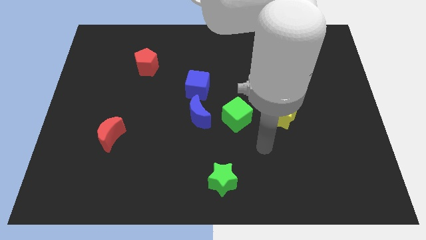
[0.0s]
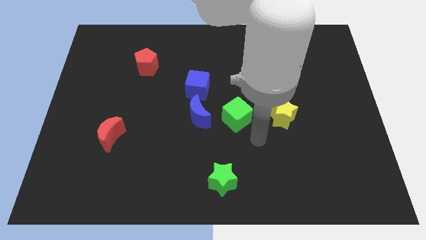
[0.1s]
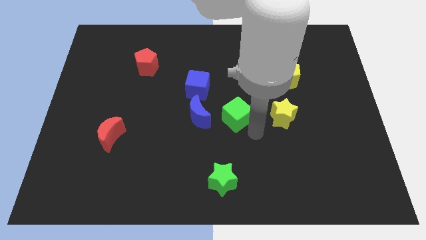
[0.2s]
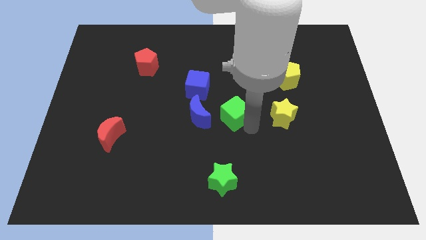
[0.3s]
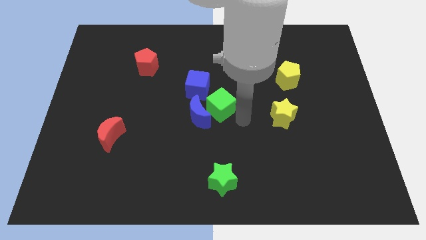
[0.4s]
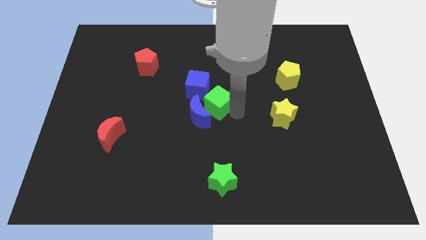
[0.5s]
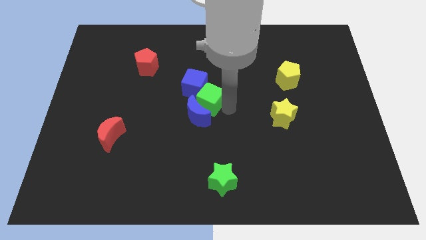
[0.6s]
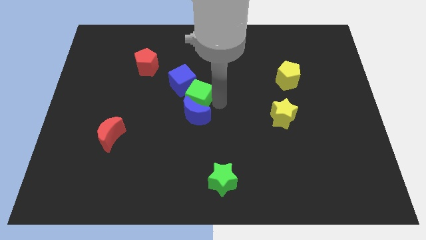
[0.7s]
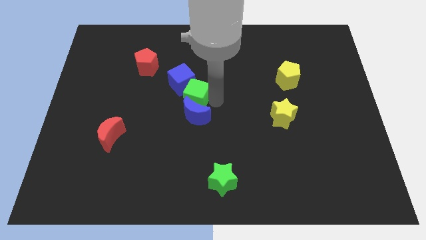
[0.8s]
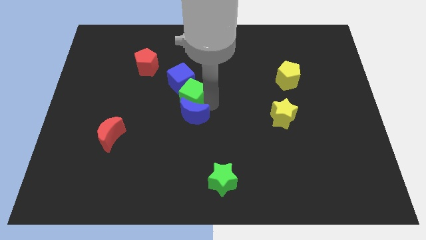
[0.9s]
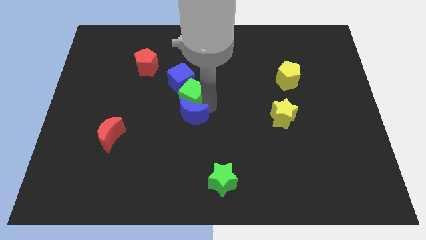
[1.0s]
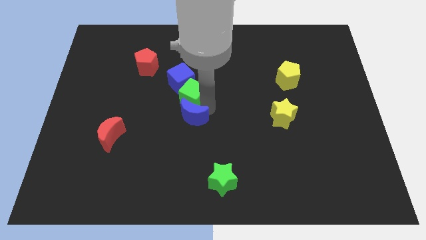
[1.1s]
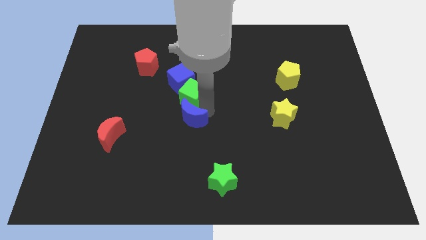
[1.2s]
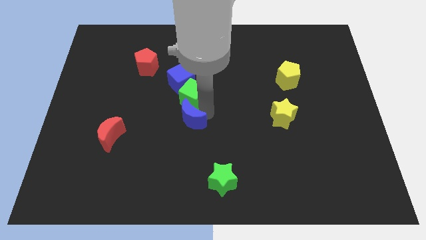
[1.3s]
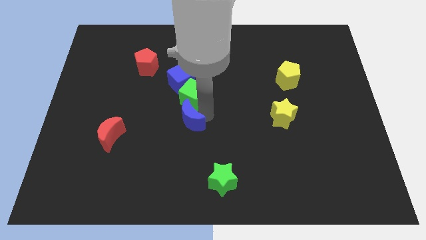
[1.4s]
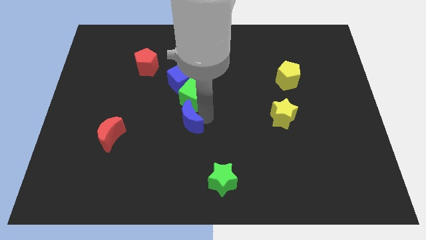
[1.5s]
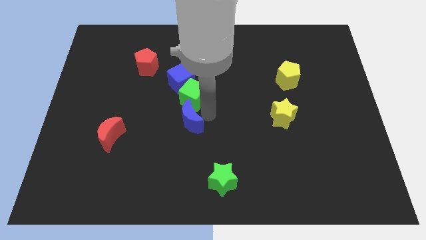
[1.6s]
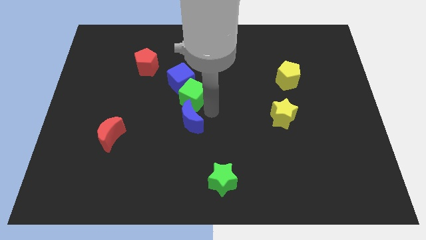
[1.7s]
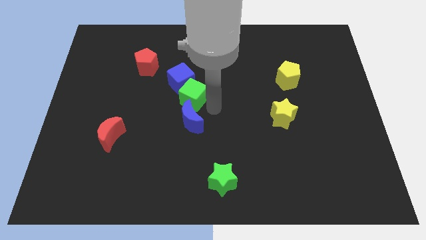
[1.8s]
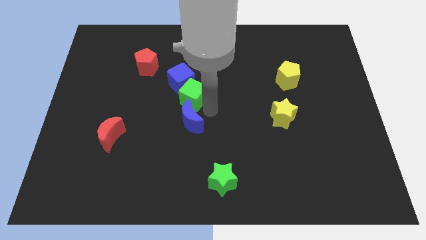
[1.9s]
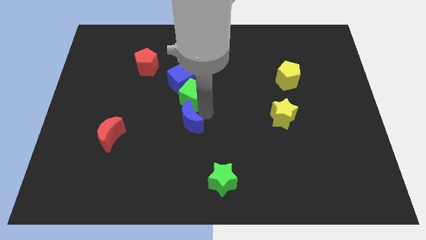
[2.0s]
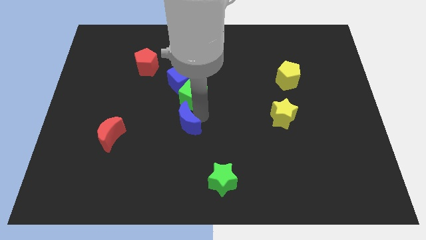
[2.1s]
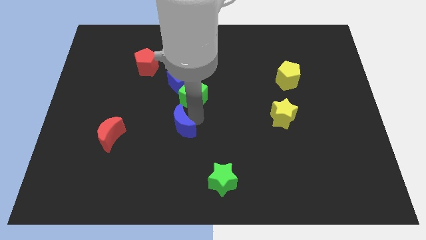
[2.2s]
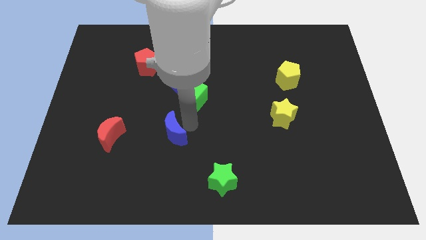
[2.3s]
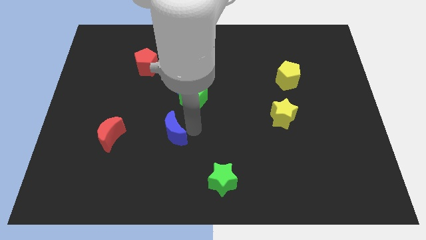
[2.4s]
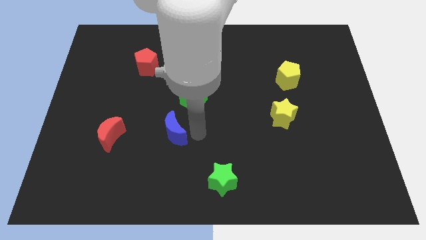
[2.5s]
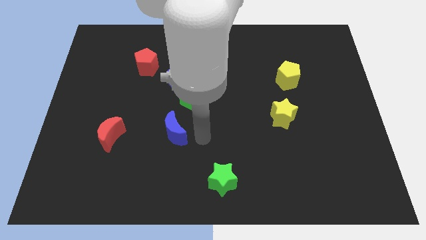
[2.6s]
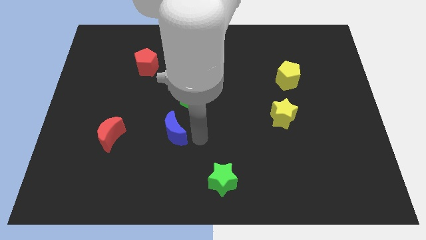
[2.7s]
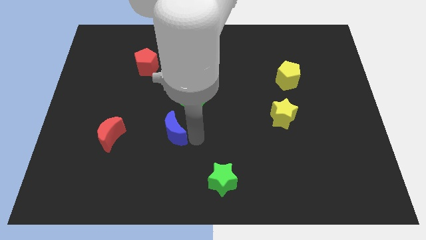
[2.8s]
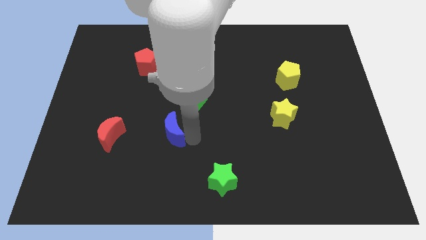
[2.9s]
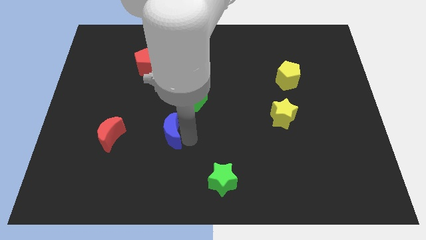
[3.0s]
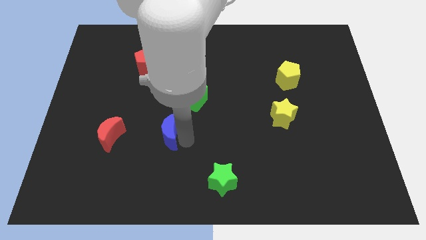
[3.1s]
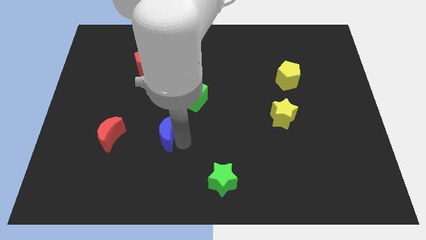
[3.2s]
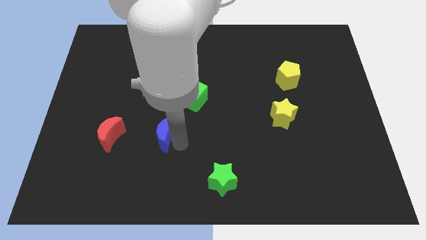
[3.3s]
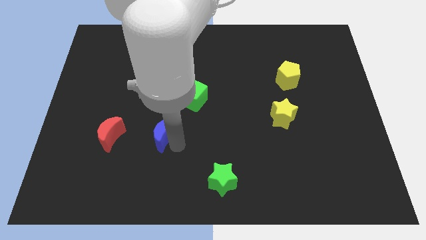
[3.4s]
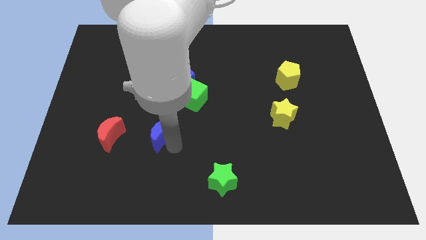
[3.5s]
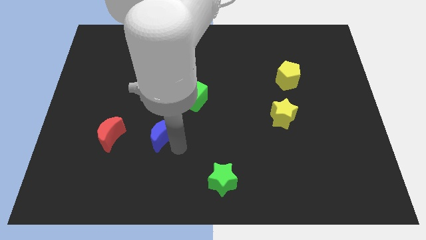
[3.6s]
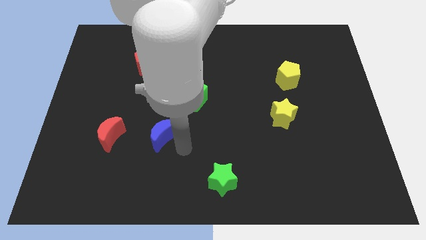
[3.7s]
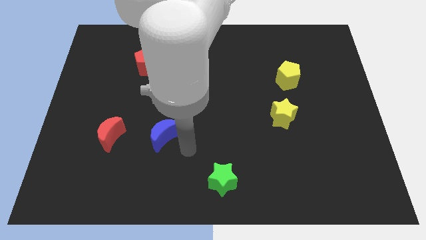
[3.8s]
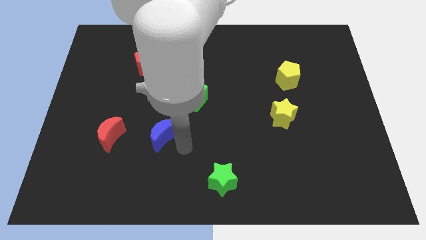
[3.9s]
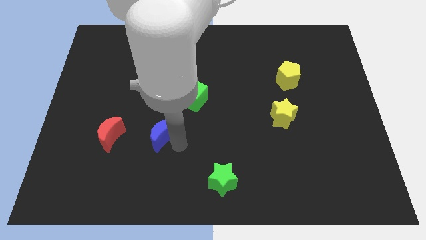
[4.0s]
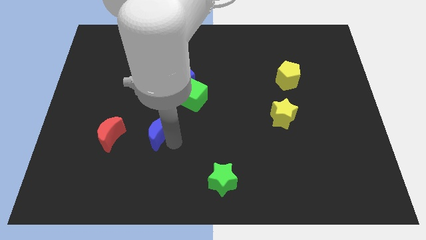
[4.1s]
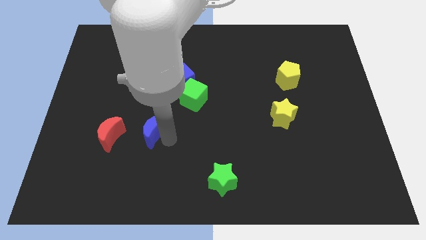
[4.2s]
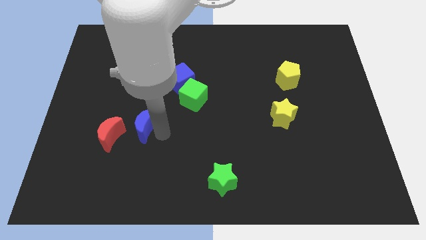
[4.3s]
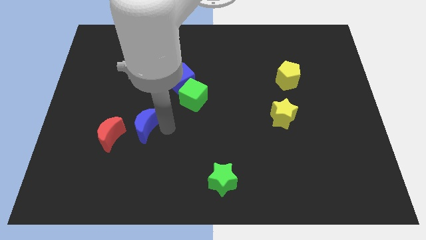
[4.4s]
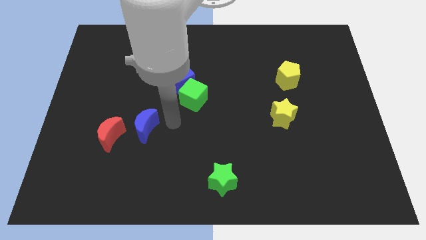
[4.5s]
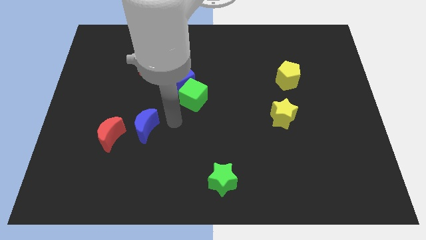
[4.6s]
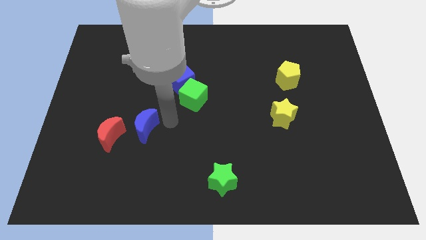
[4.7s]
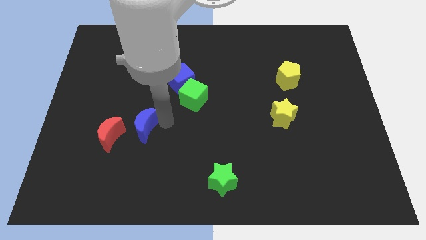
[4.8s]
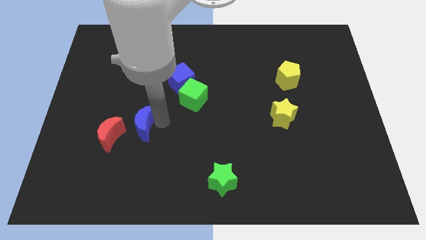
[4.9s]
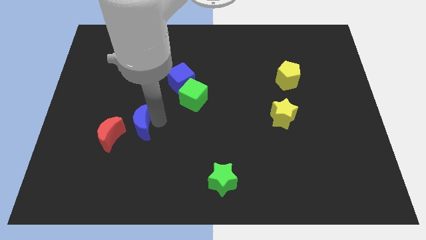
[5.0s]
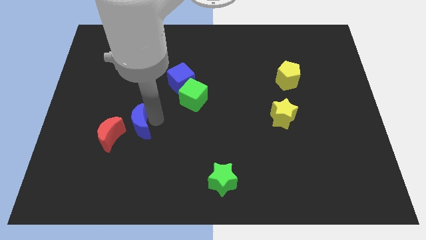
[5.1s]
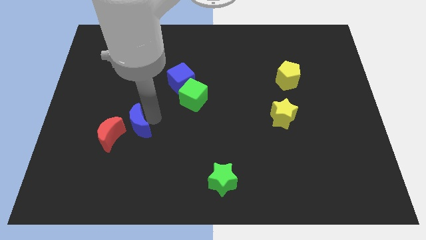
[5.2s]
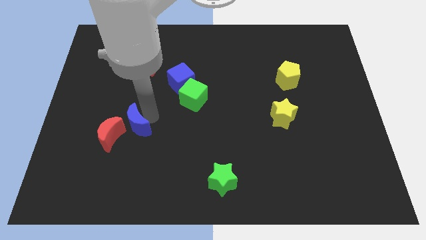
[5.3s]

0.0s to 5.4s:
put the blue moon towards the red moon

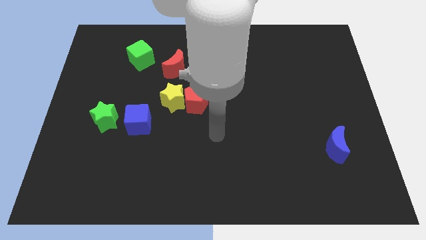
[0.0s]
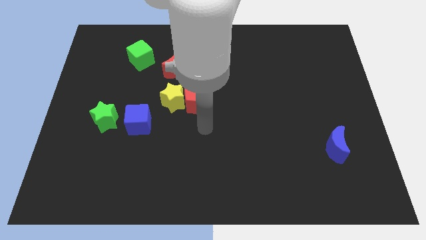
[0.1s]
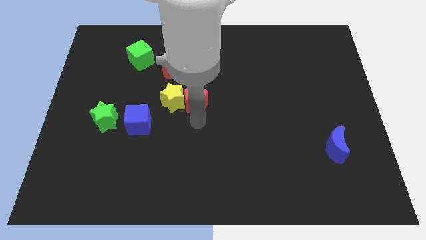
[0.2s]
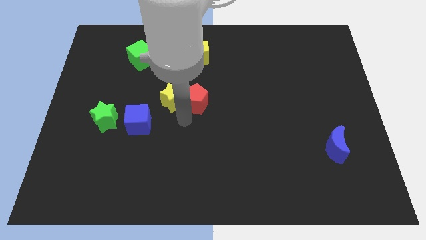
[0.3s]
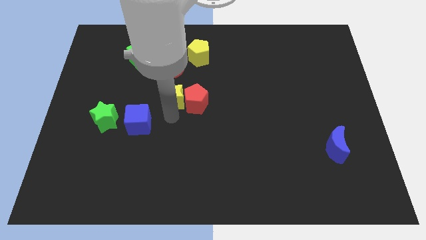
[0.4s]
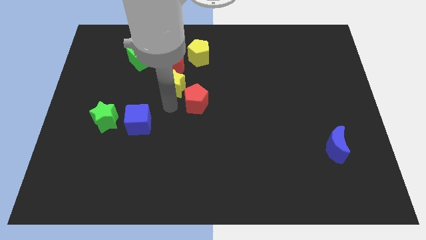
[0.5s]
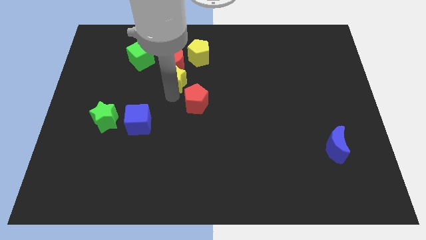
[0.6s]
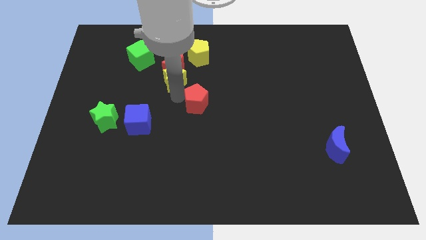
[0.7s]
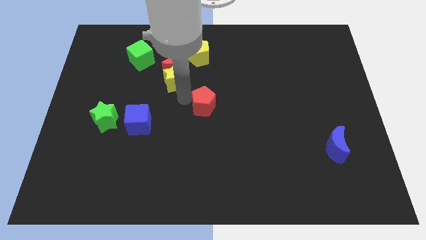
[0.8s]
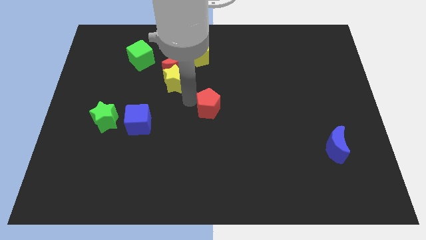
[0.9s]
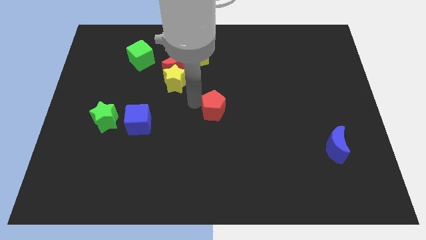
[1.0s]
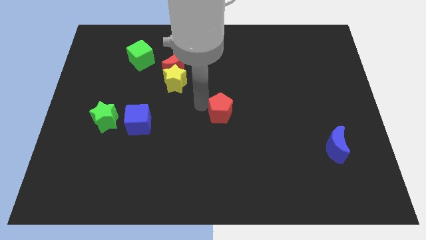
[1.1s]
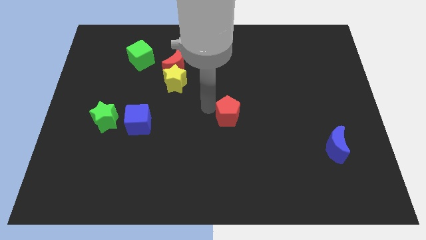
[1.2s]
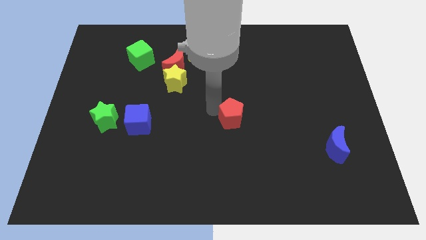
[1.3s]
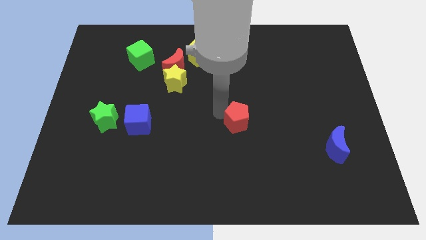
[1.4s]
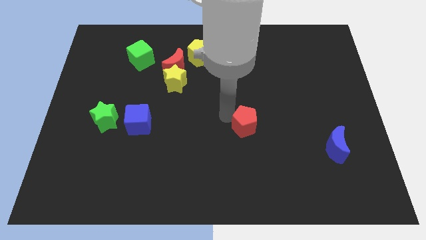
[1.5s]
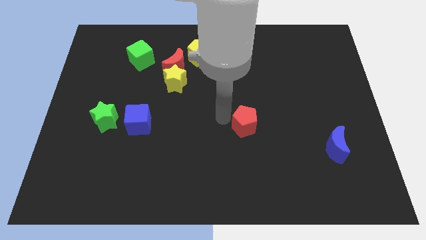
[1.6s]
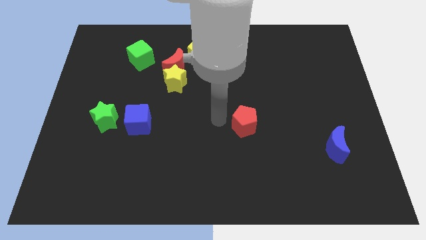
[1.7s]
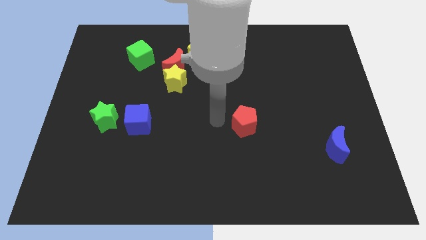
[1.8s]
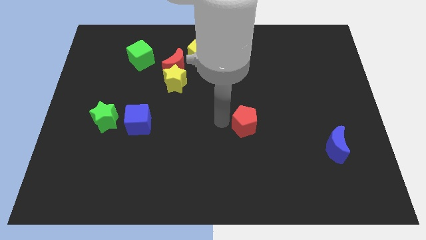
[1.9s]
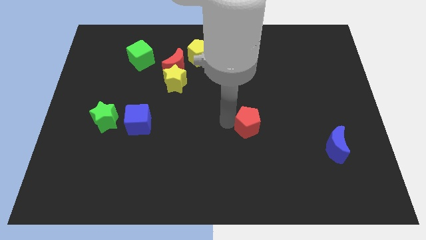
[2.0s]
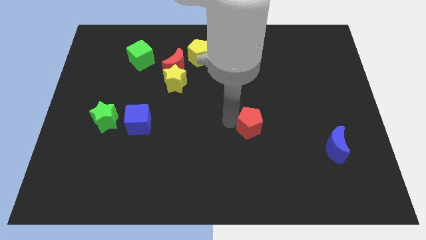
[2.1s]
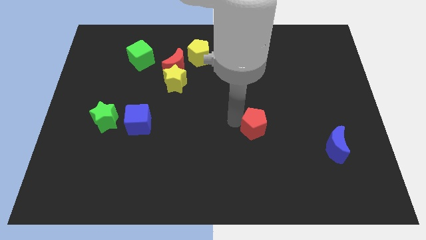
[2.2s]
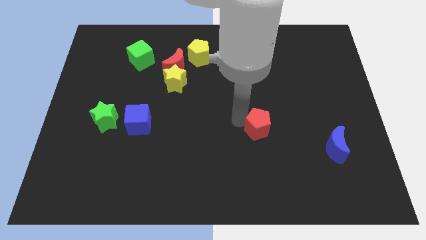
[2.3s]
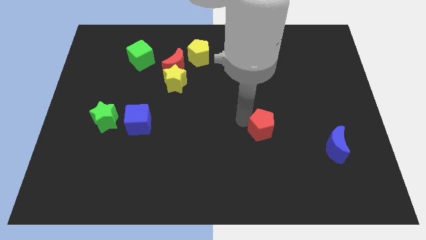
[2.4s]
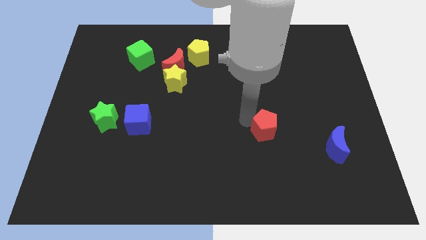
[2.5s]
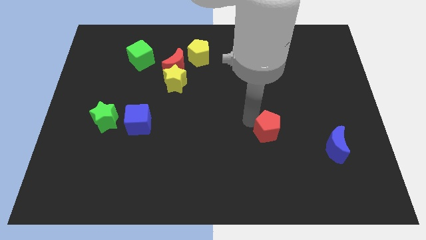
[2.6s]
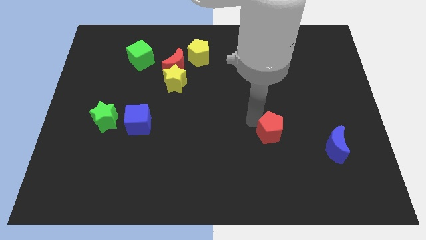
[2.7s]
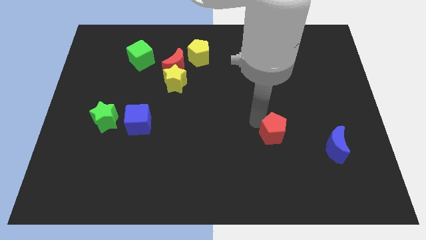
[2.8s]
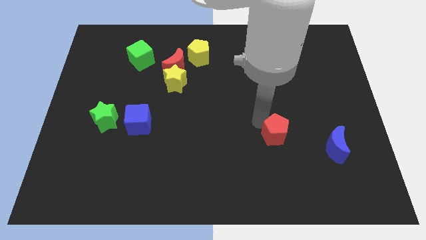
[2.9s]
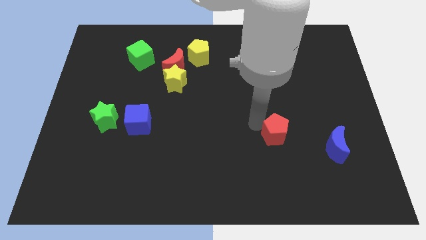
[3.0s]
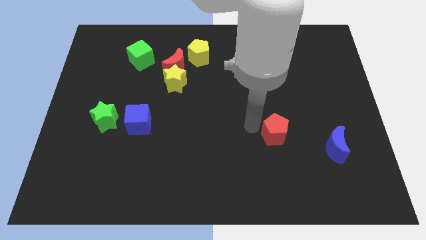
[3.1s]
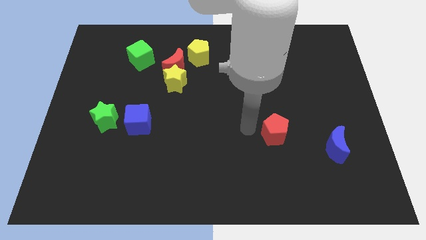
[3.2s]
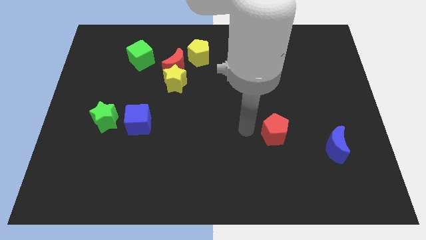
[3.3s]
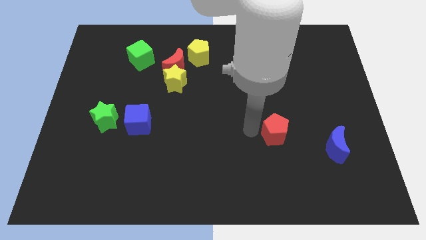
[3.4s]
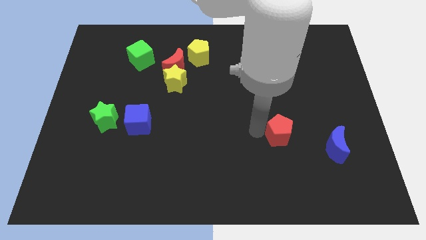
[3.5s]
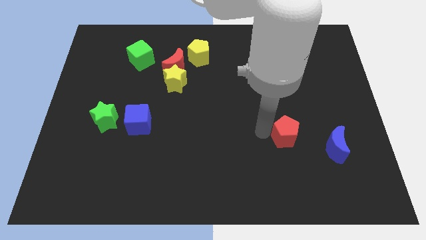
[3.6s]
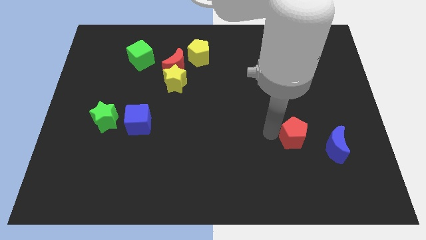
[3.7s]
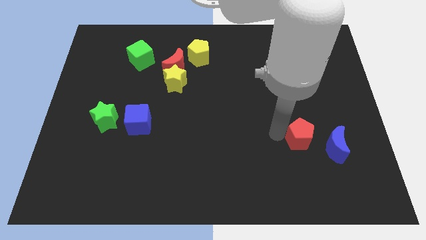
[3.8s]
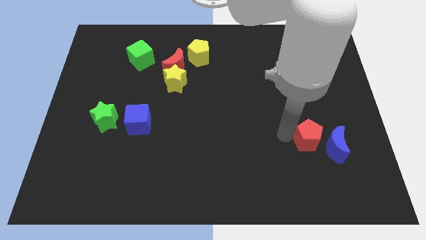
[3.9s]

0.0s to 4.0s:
slide the red pentagon close to the blue moon
